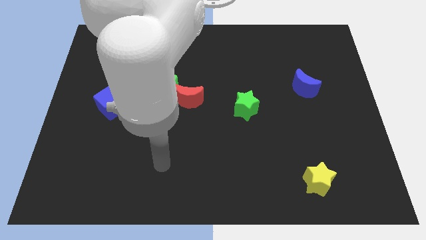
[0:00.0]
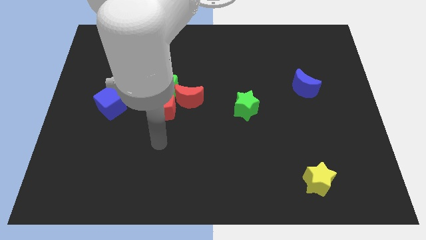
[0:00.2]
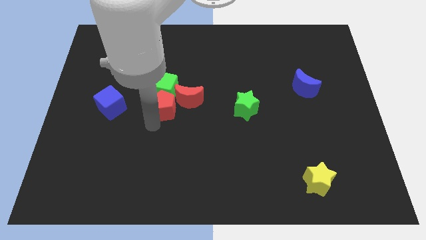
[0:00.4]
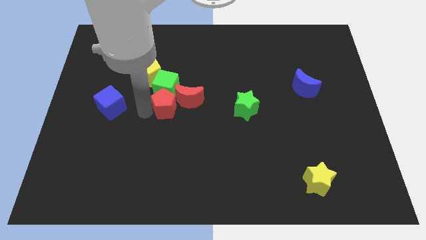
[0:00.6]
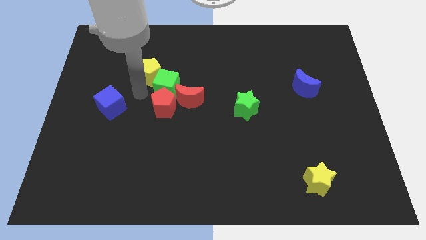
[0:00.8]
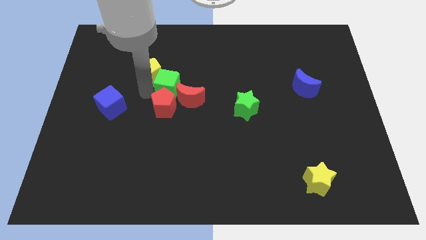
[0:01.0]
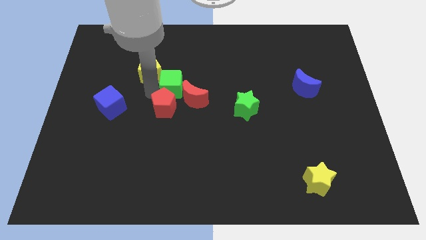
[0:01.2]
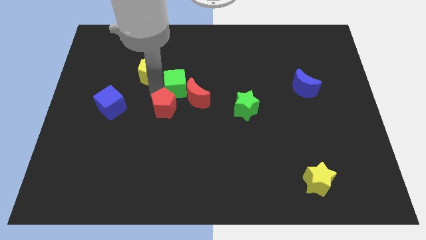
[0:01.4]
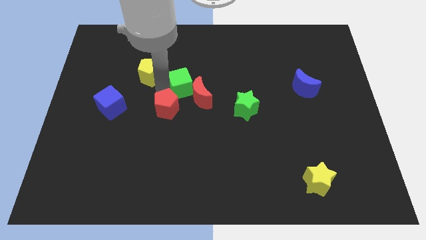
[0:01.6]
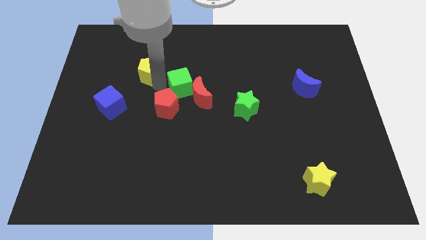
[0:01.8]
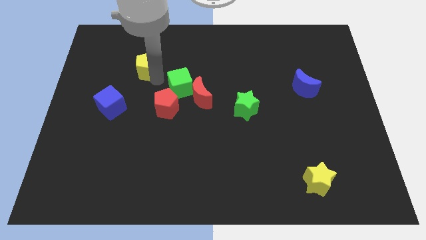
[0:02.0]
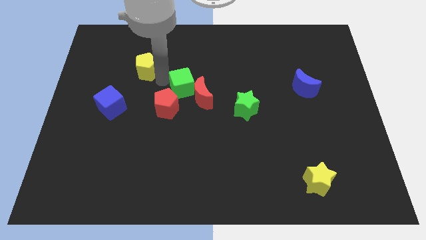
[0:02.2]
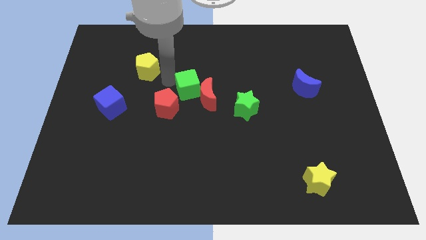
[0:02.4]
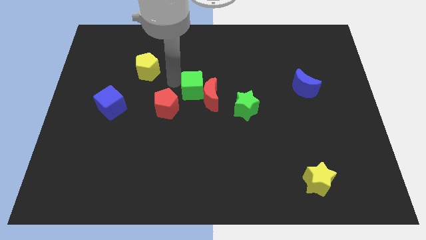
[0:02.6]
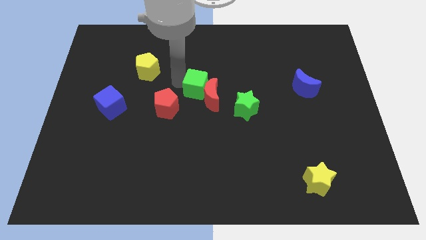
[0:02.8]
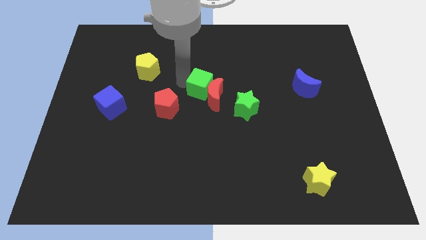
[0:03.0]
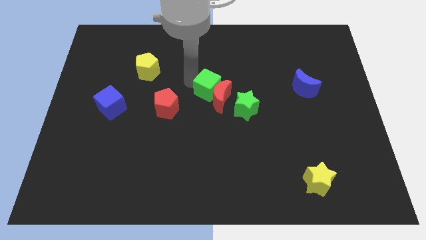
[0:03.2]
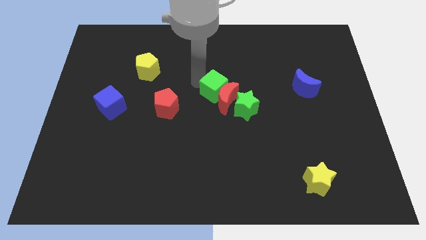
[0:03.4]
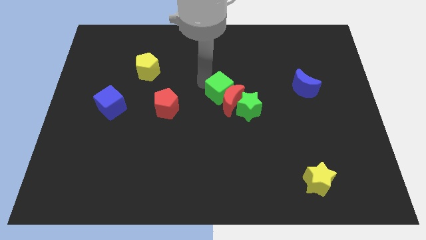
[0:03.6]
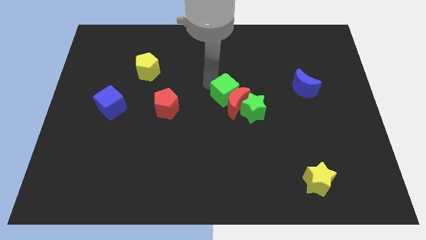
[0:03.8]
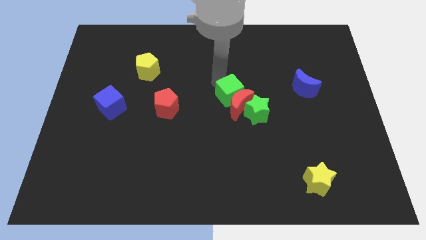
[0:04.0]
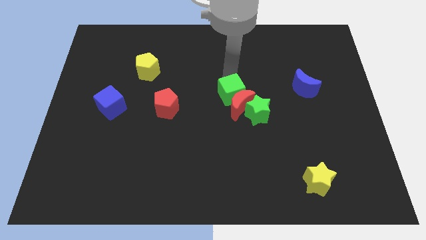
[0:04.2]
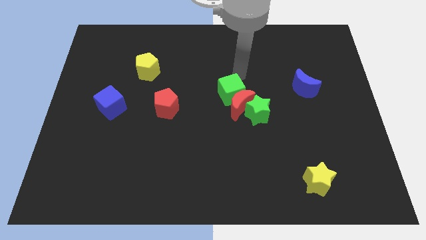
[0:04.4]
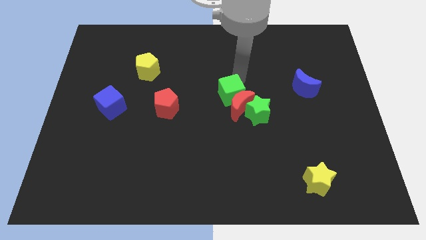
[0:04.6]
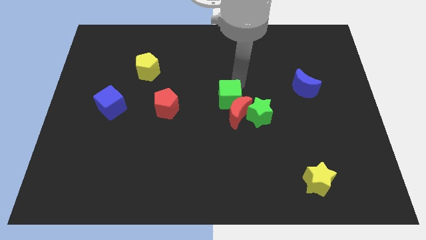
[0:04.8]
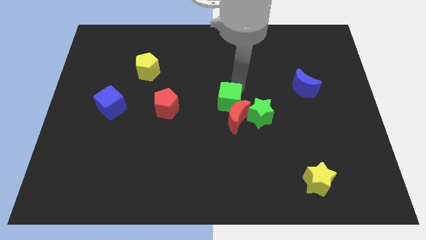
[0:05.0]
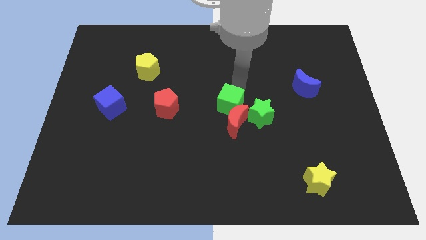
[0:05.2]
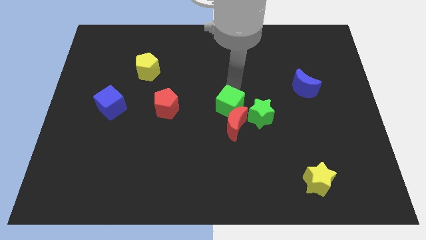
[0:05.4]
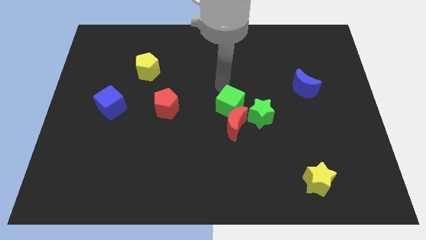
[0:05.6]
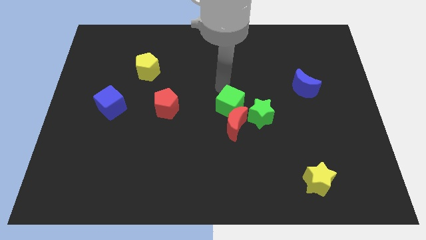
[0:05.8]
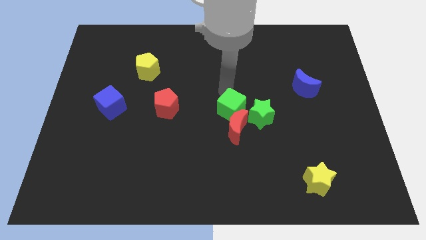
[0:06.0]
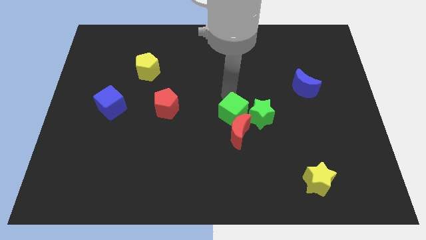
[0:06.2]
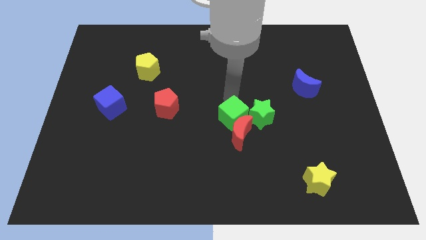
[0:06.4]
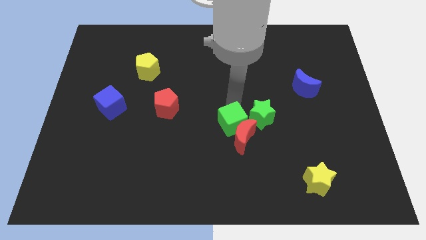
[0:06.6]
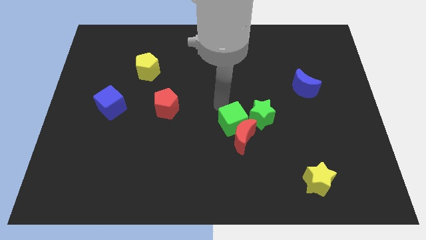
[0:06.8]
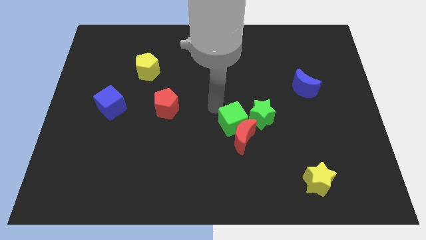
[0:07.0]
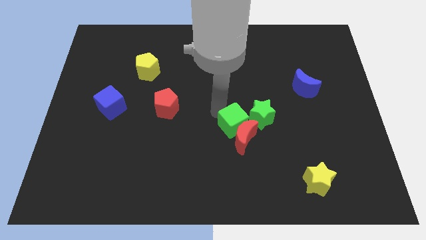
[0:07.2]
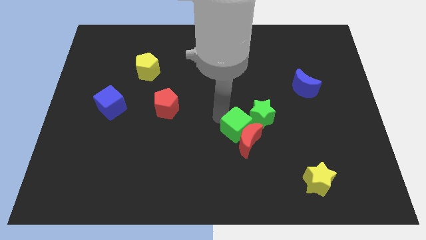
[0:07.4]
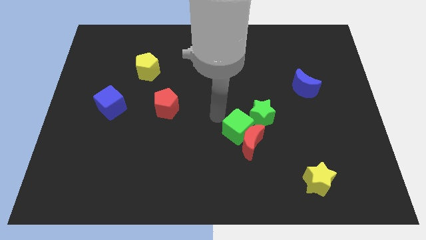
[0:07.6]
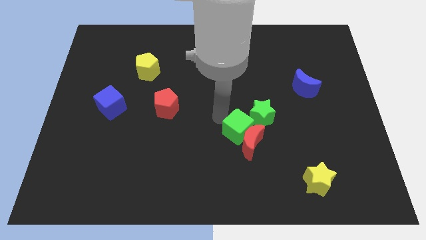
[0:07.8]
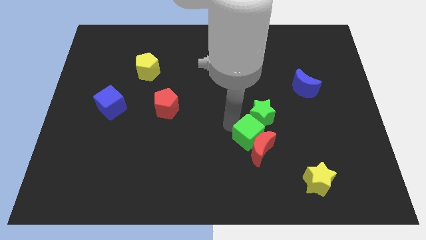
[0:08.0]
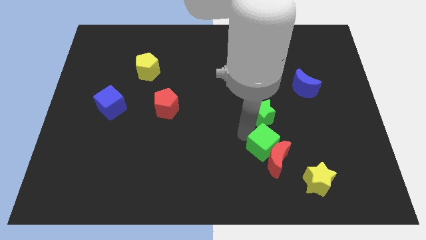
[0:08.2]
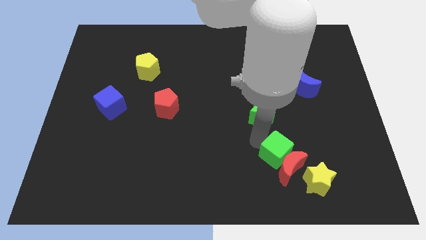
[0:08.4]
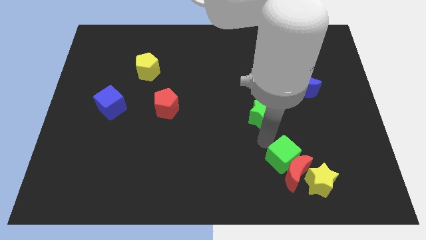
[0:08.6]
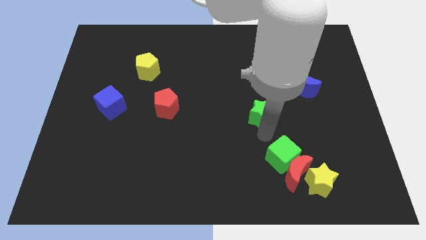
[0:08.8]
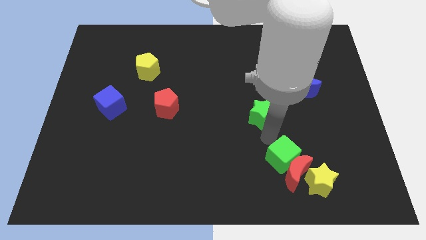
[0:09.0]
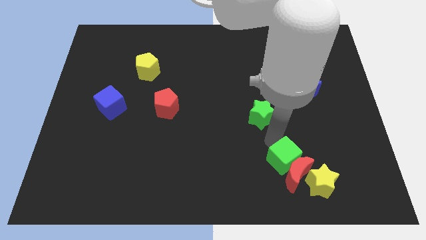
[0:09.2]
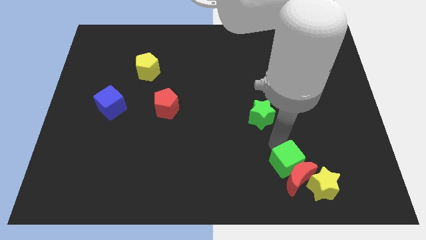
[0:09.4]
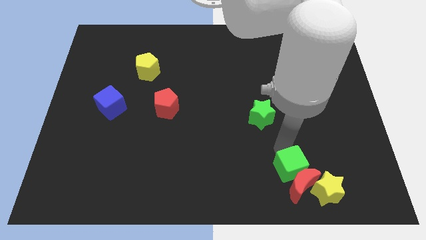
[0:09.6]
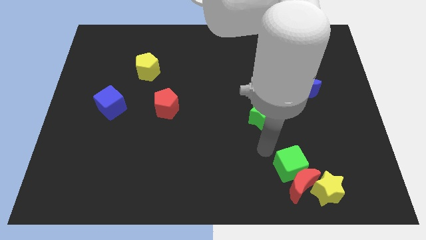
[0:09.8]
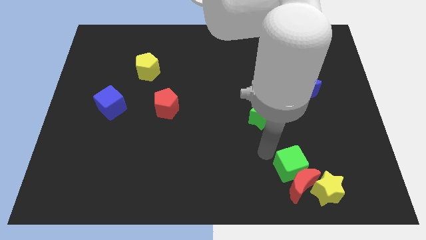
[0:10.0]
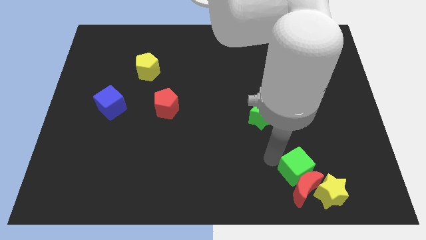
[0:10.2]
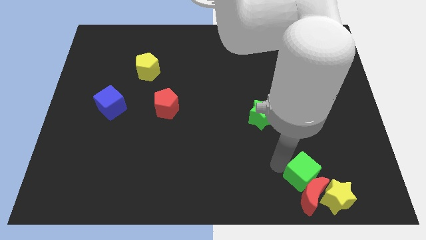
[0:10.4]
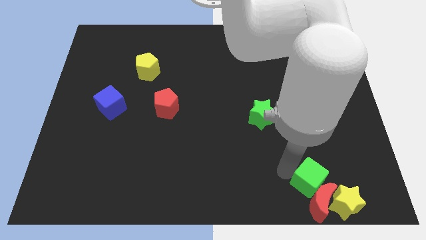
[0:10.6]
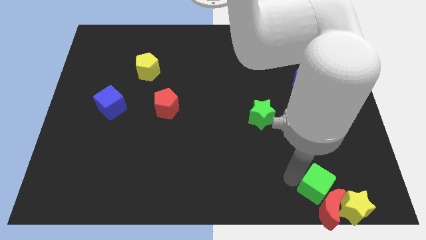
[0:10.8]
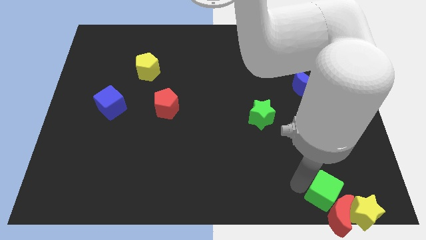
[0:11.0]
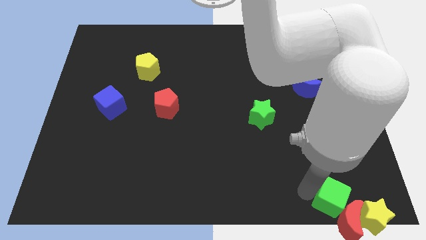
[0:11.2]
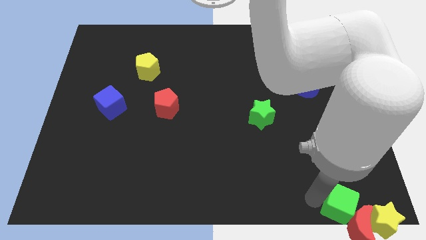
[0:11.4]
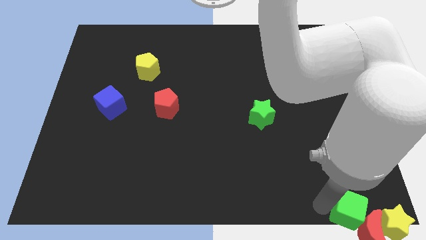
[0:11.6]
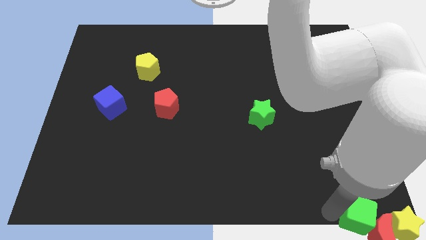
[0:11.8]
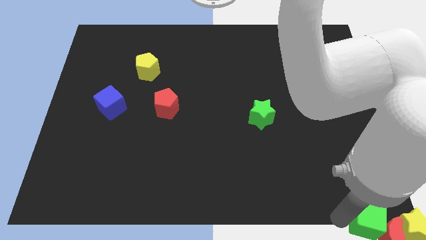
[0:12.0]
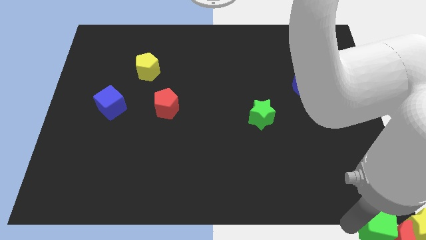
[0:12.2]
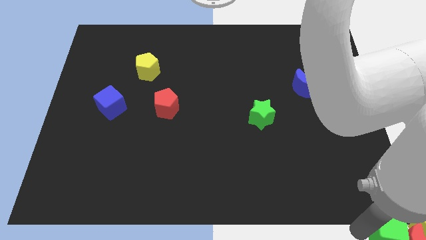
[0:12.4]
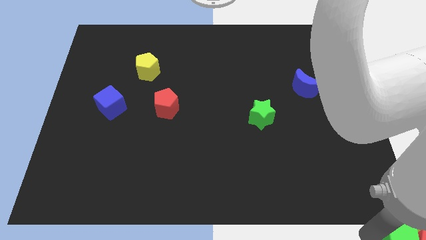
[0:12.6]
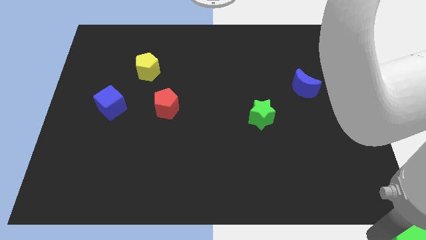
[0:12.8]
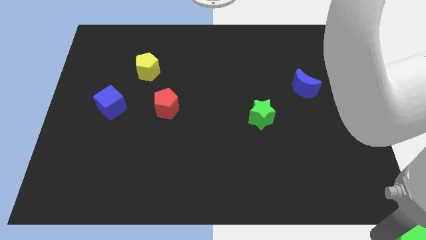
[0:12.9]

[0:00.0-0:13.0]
slide the green cube next to the yellow star

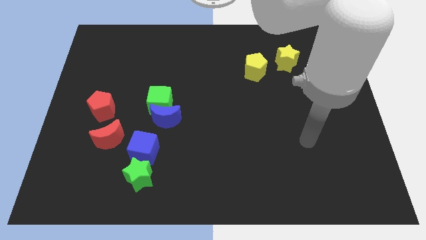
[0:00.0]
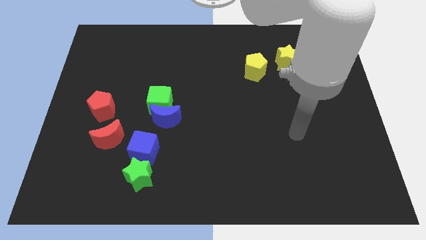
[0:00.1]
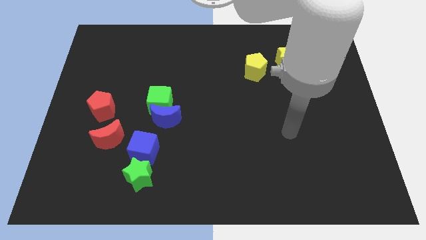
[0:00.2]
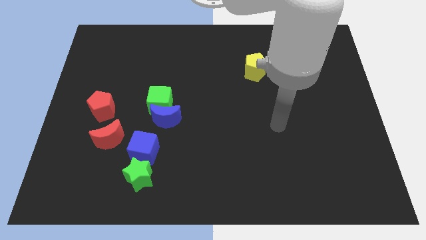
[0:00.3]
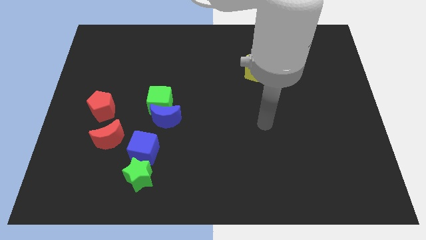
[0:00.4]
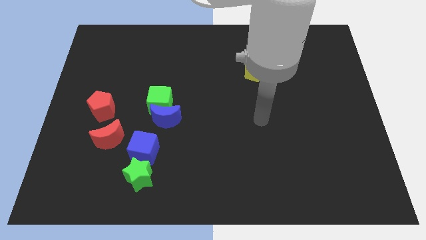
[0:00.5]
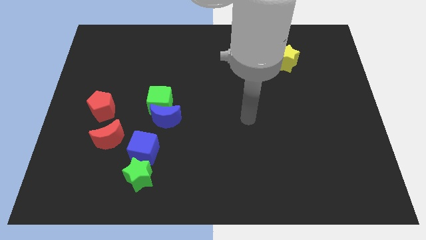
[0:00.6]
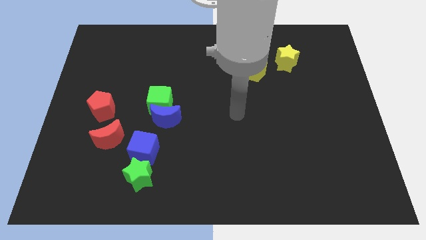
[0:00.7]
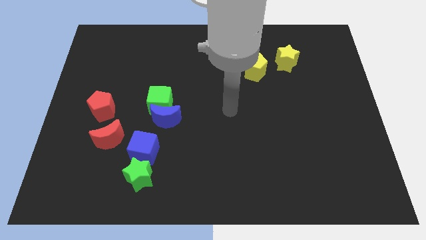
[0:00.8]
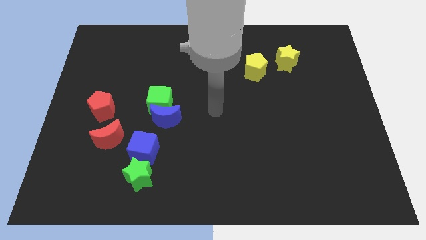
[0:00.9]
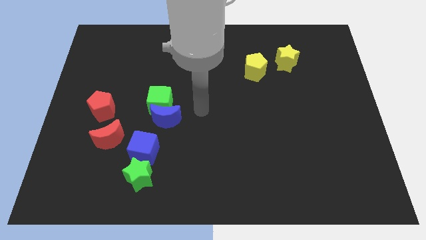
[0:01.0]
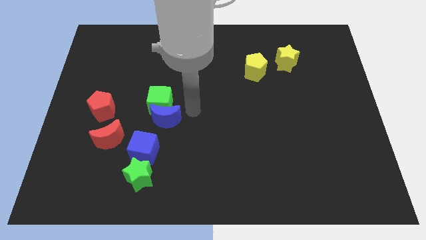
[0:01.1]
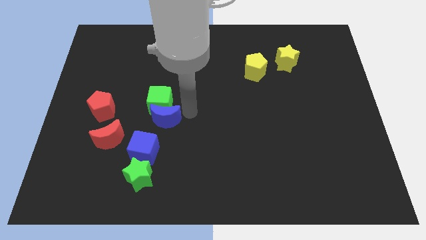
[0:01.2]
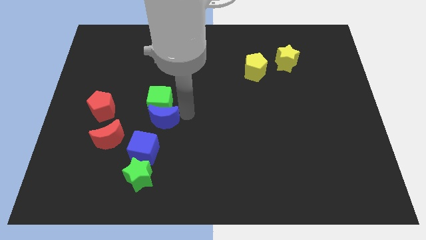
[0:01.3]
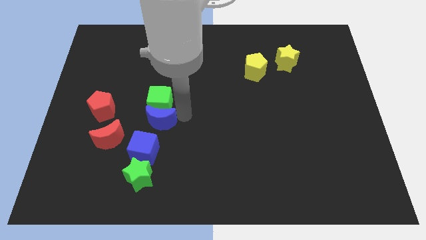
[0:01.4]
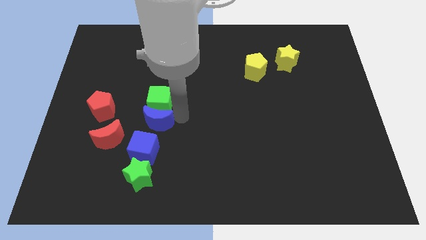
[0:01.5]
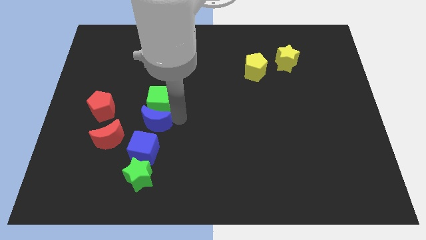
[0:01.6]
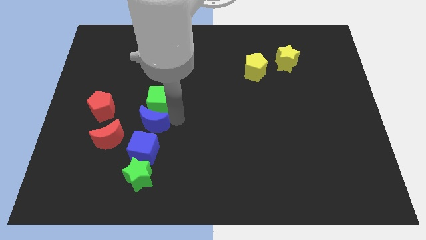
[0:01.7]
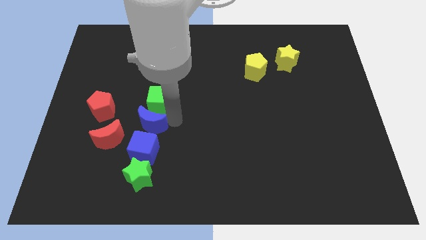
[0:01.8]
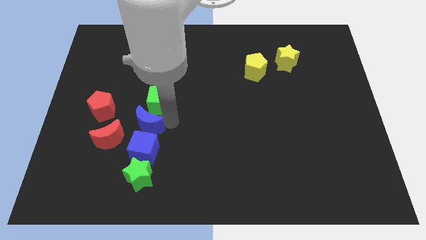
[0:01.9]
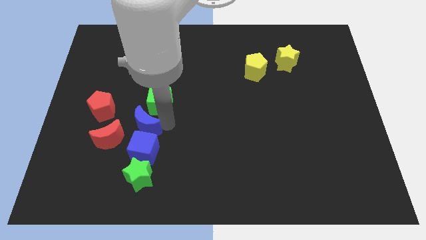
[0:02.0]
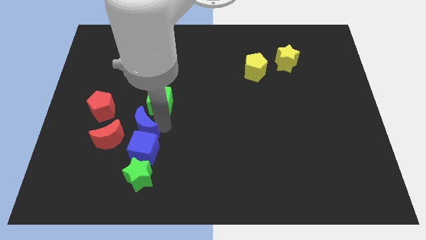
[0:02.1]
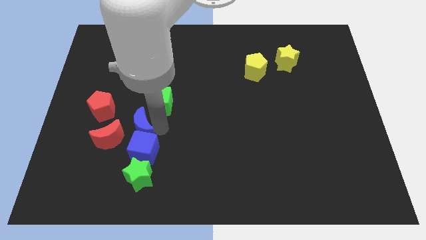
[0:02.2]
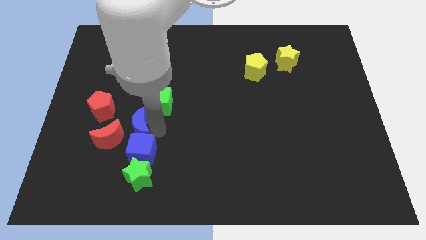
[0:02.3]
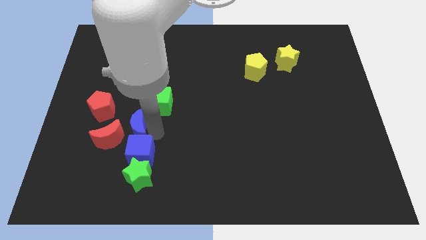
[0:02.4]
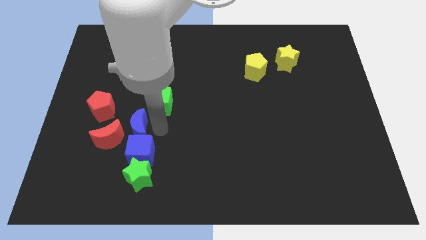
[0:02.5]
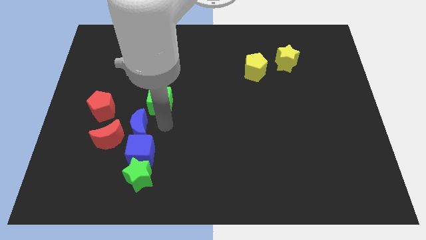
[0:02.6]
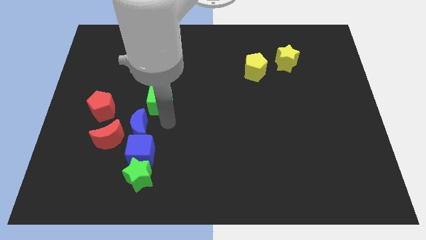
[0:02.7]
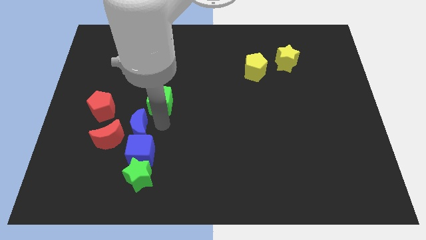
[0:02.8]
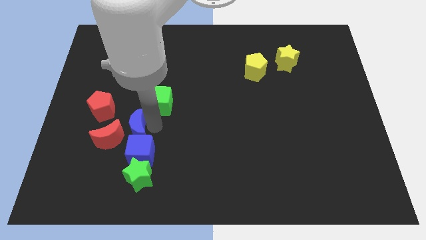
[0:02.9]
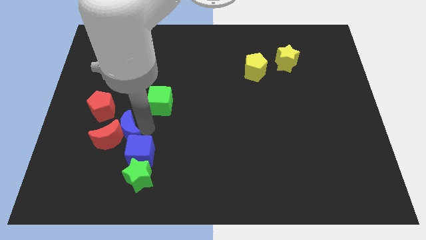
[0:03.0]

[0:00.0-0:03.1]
put the blue moon to the red moon
